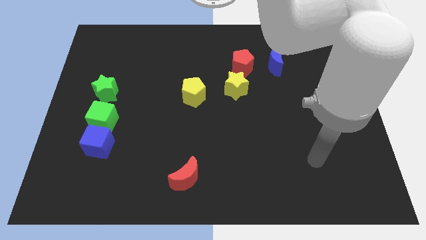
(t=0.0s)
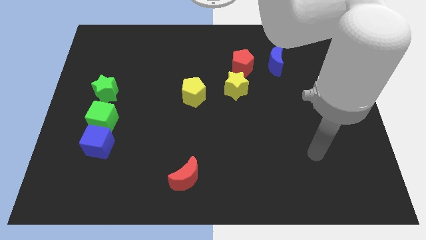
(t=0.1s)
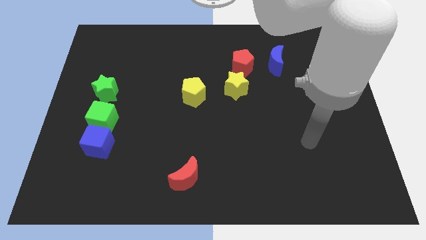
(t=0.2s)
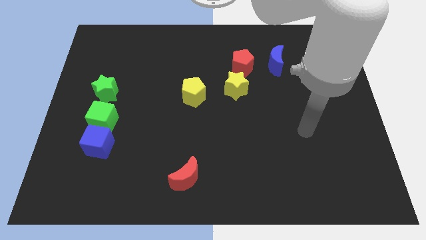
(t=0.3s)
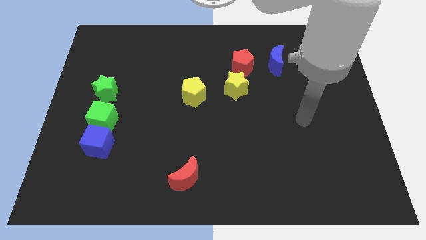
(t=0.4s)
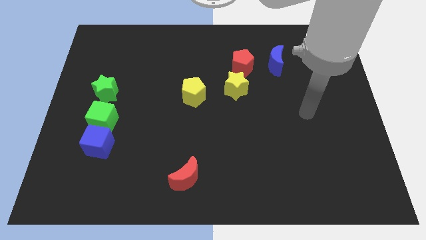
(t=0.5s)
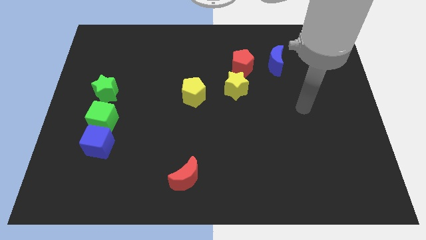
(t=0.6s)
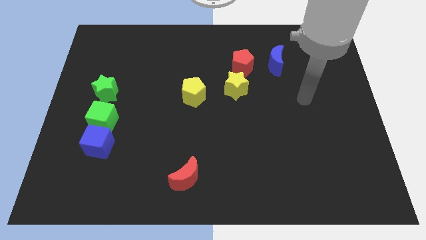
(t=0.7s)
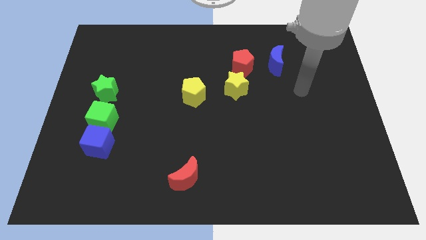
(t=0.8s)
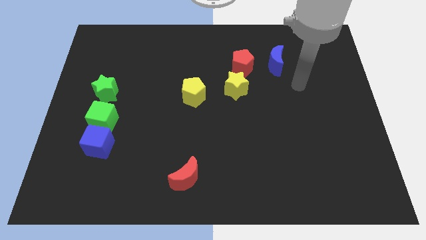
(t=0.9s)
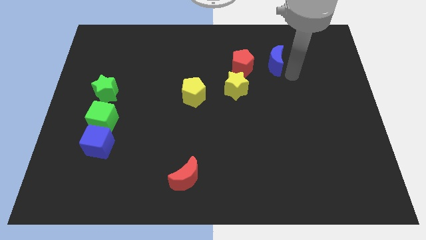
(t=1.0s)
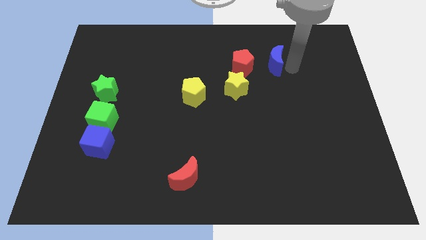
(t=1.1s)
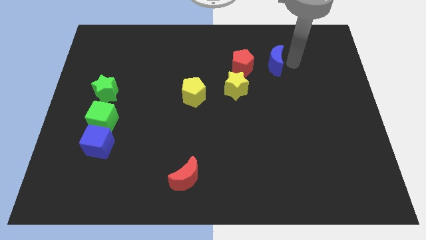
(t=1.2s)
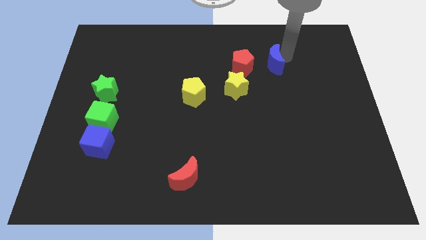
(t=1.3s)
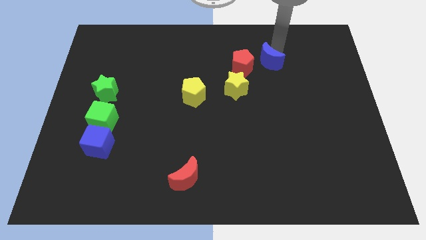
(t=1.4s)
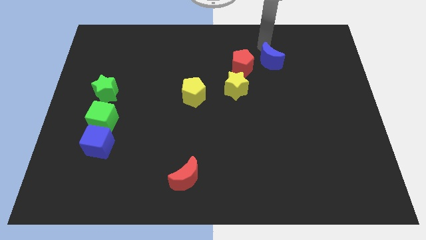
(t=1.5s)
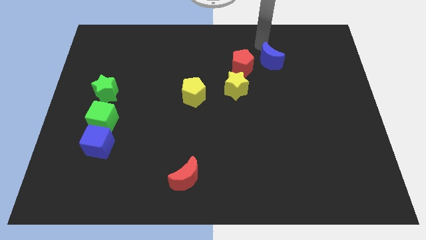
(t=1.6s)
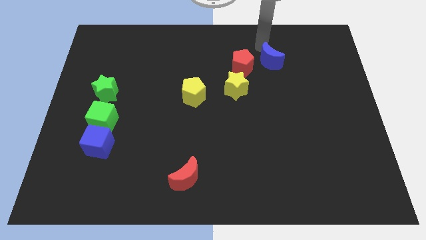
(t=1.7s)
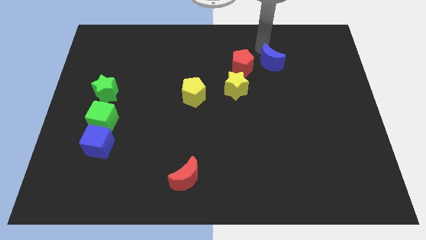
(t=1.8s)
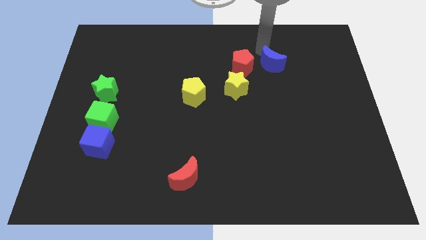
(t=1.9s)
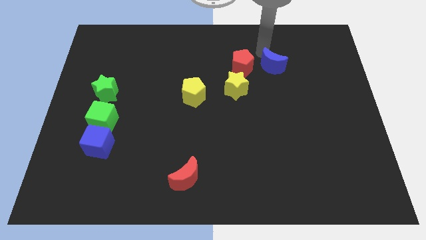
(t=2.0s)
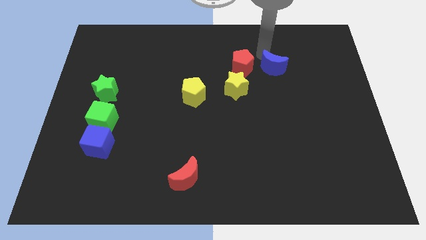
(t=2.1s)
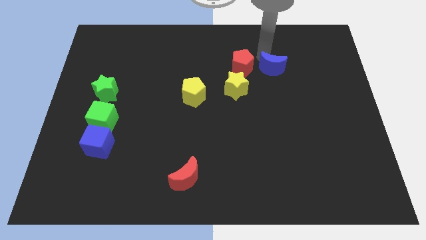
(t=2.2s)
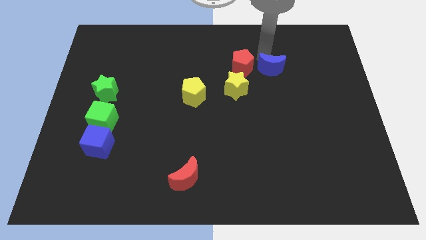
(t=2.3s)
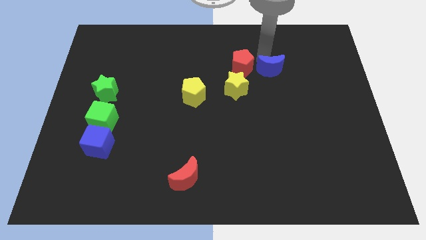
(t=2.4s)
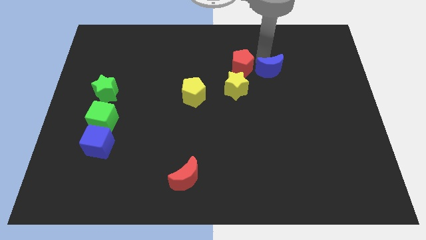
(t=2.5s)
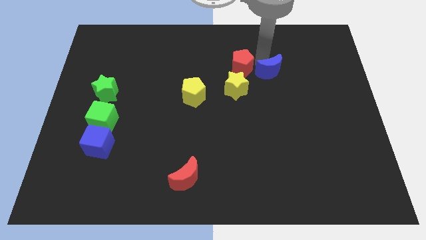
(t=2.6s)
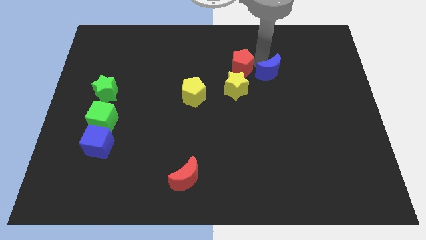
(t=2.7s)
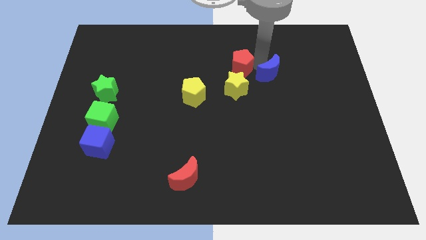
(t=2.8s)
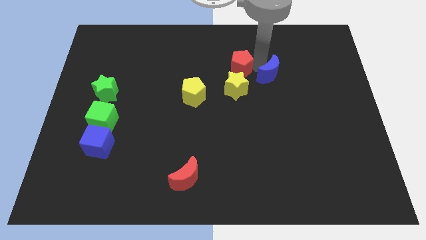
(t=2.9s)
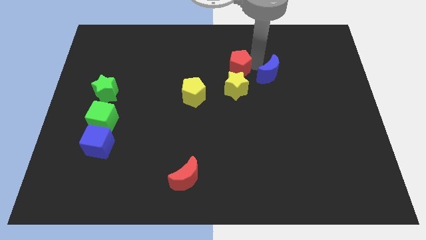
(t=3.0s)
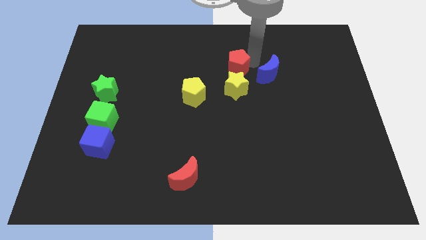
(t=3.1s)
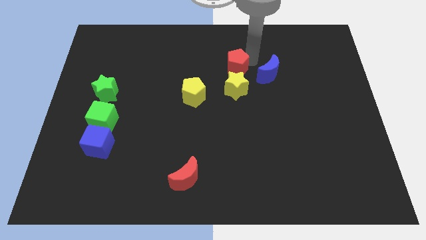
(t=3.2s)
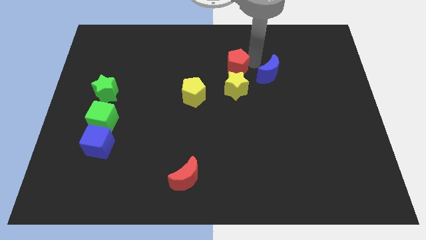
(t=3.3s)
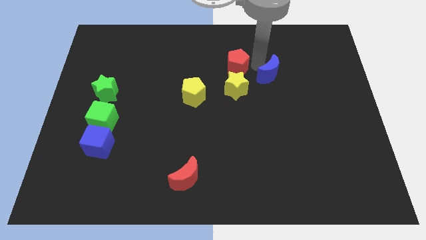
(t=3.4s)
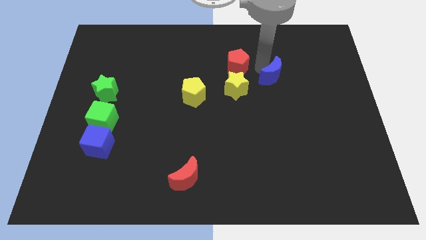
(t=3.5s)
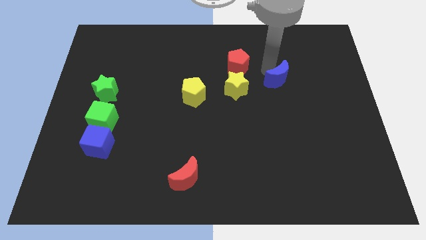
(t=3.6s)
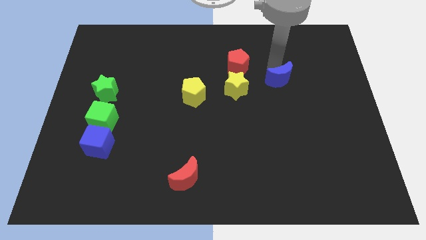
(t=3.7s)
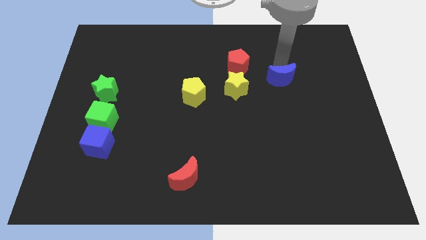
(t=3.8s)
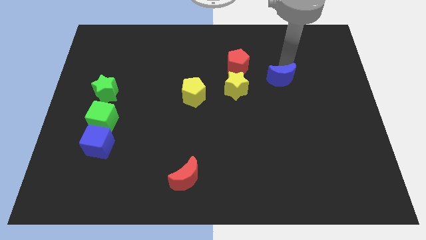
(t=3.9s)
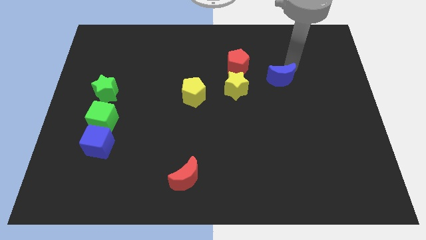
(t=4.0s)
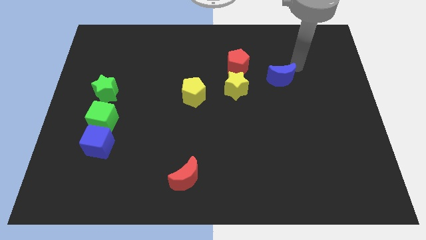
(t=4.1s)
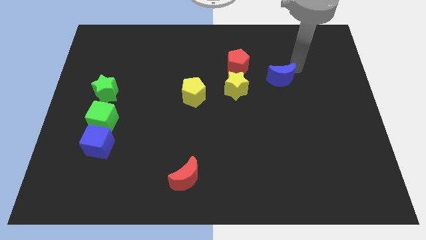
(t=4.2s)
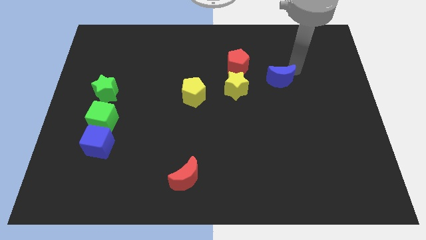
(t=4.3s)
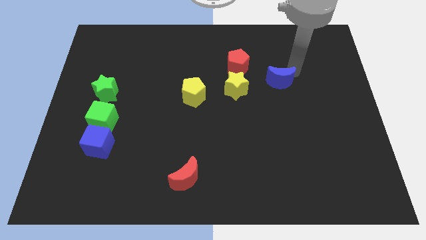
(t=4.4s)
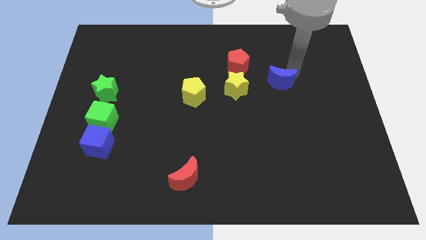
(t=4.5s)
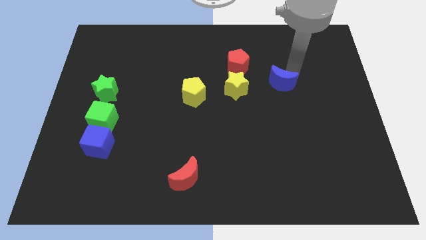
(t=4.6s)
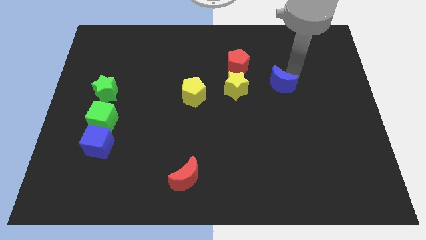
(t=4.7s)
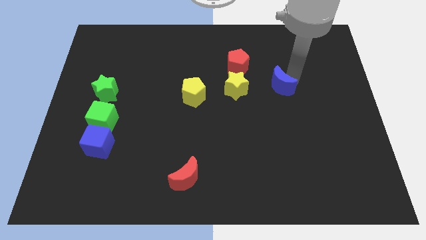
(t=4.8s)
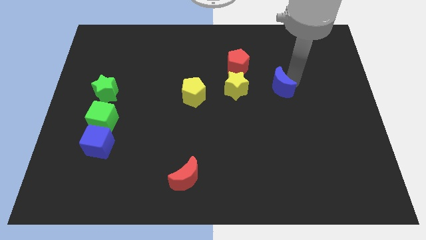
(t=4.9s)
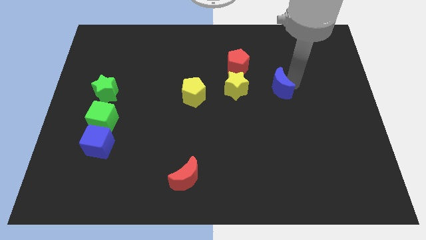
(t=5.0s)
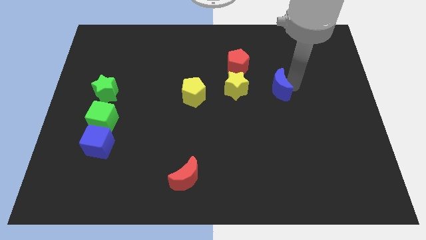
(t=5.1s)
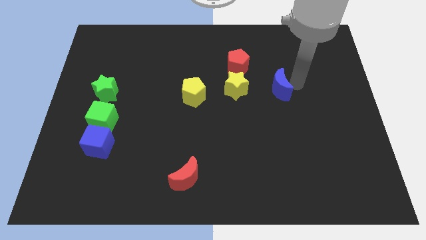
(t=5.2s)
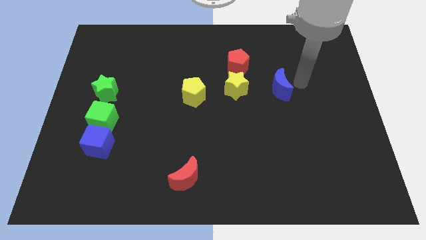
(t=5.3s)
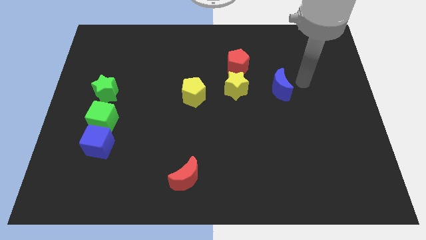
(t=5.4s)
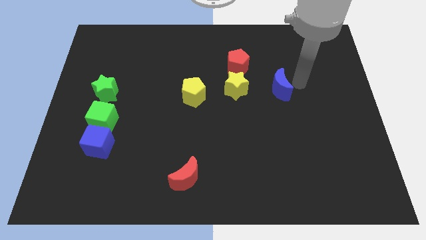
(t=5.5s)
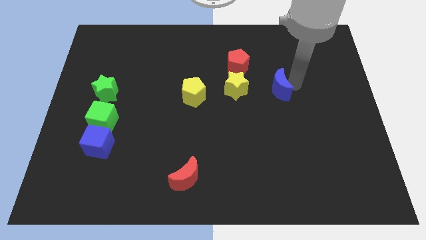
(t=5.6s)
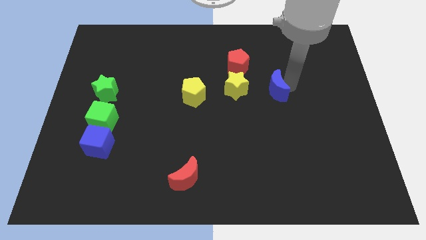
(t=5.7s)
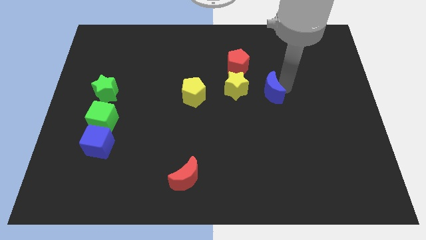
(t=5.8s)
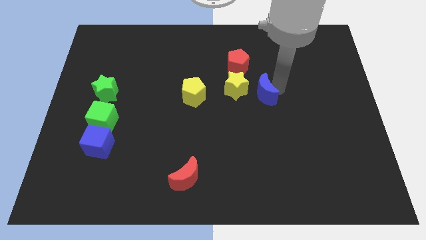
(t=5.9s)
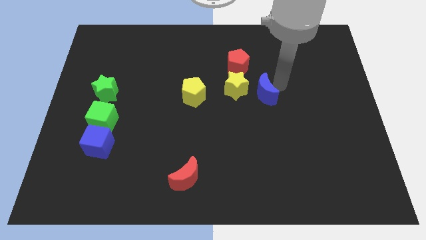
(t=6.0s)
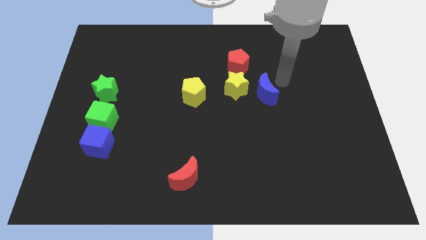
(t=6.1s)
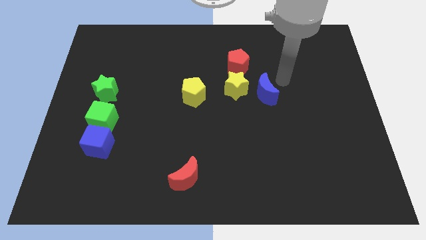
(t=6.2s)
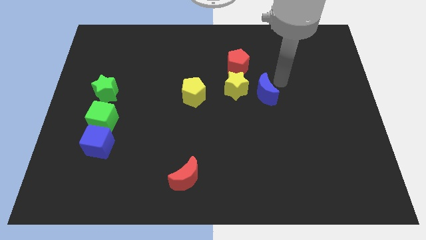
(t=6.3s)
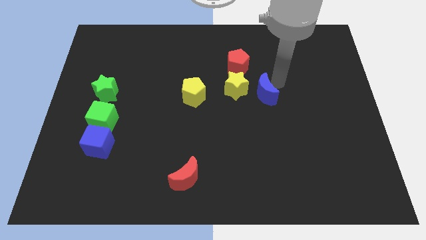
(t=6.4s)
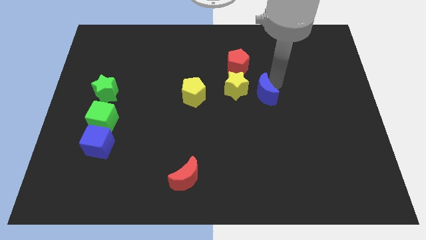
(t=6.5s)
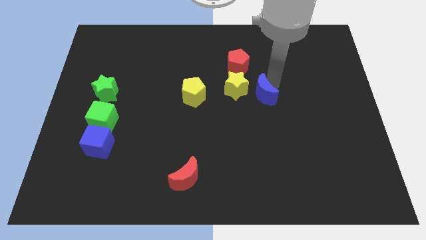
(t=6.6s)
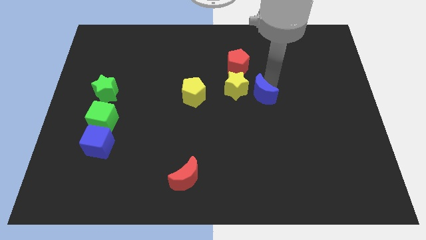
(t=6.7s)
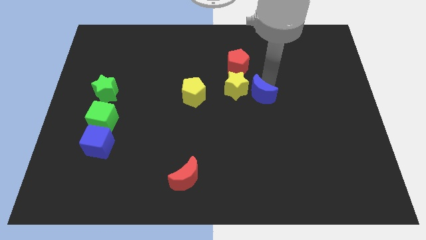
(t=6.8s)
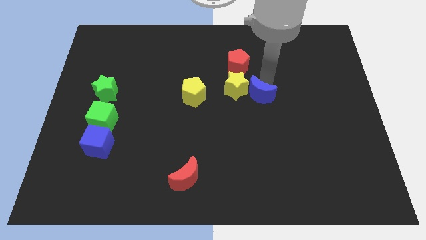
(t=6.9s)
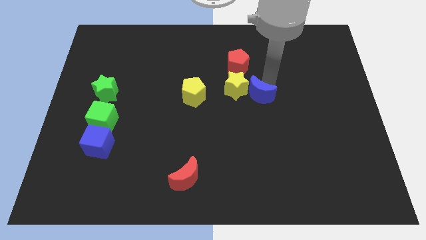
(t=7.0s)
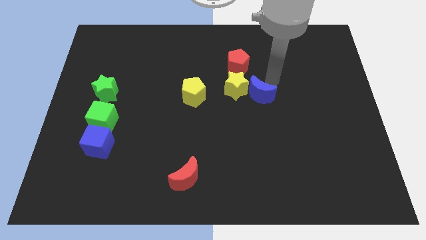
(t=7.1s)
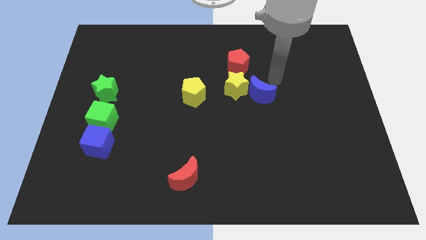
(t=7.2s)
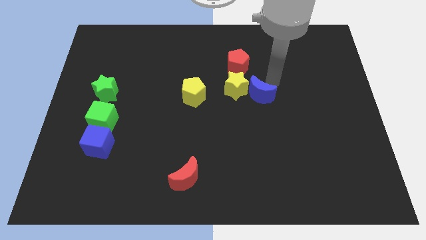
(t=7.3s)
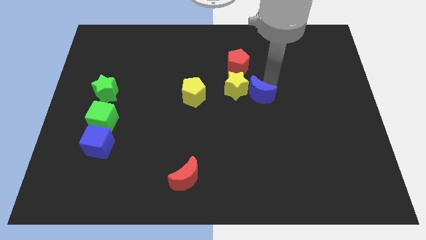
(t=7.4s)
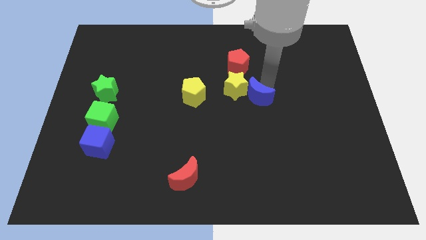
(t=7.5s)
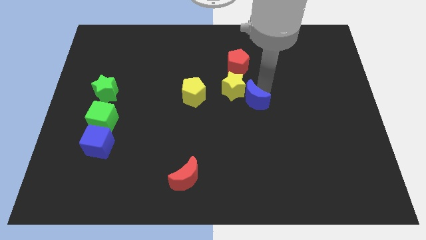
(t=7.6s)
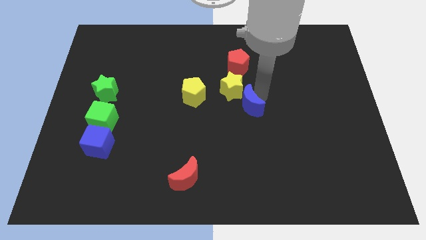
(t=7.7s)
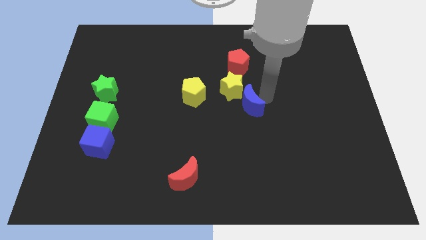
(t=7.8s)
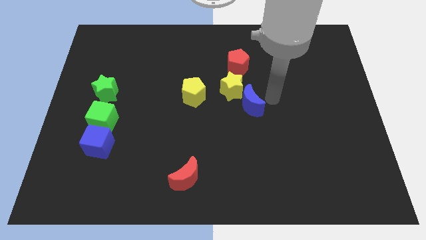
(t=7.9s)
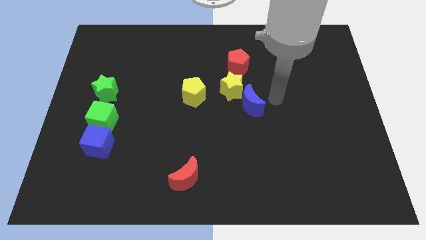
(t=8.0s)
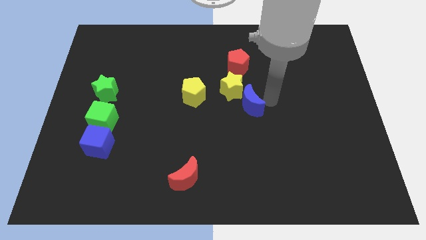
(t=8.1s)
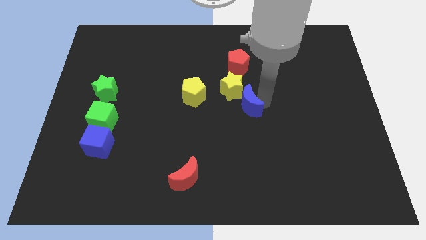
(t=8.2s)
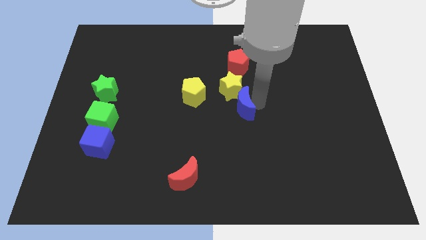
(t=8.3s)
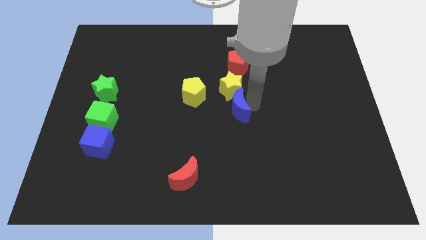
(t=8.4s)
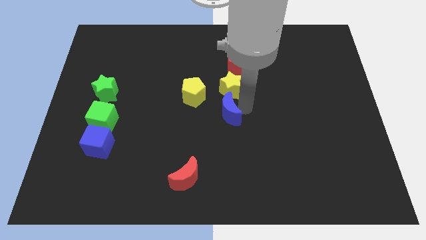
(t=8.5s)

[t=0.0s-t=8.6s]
push the blue moon downwards and to the left diagonally
